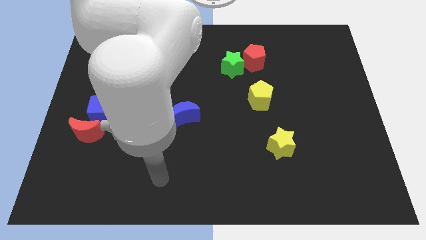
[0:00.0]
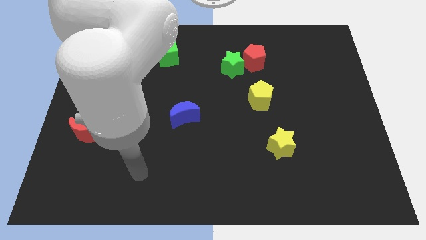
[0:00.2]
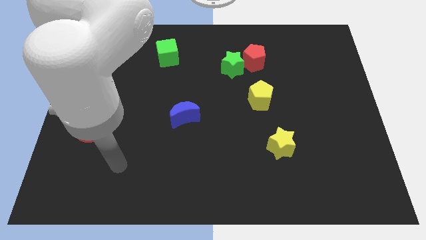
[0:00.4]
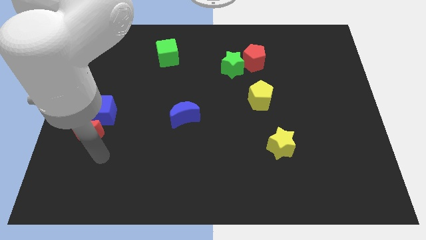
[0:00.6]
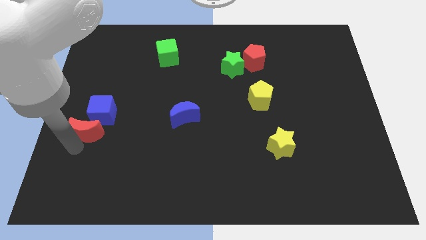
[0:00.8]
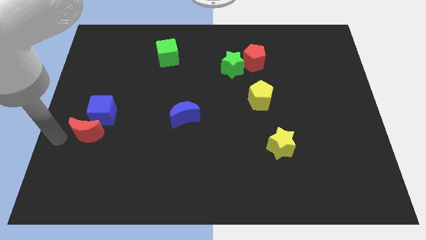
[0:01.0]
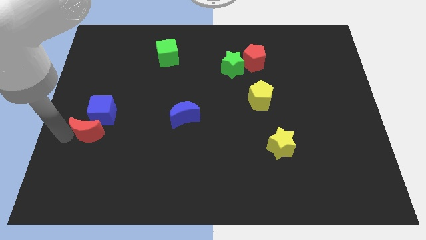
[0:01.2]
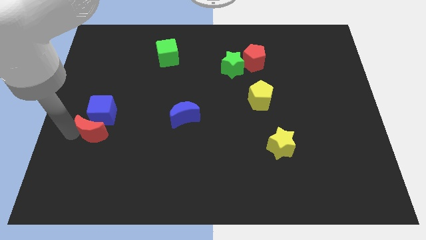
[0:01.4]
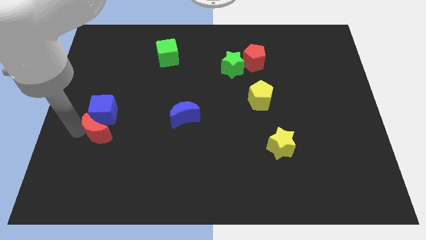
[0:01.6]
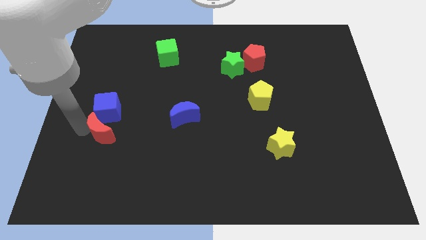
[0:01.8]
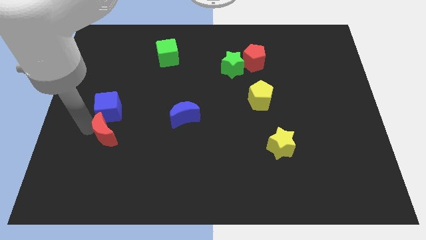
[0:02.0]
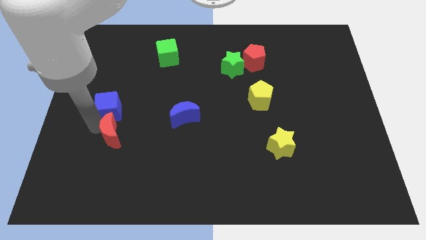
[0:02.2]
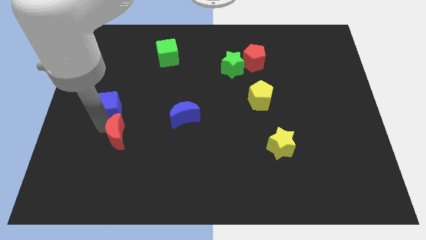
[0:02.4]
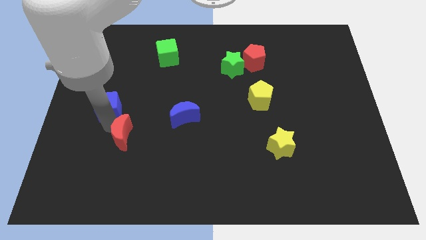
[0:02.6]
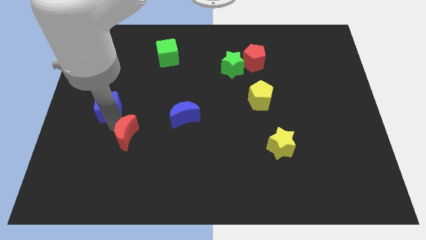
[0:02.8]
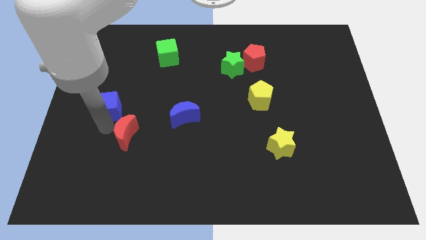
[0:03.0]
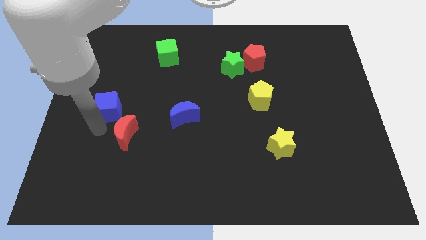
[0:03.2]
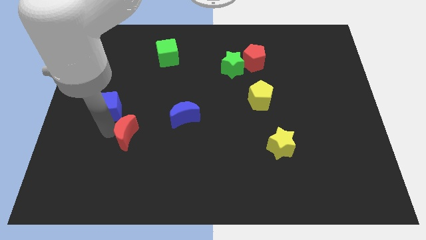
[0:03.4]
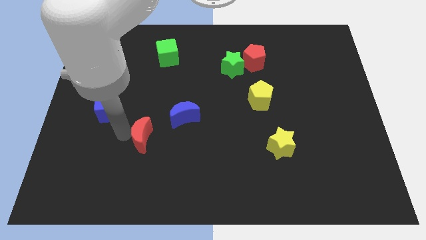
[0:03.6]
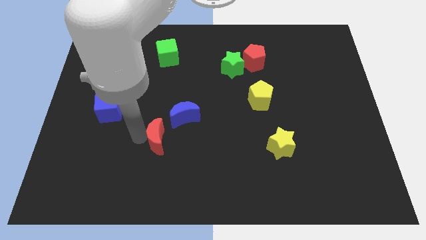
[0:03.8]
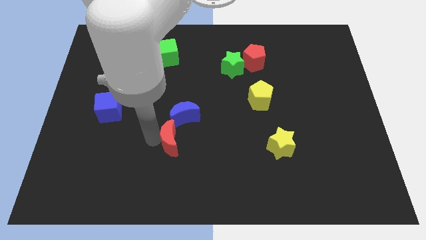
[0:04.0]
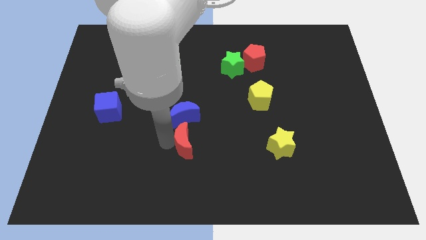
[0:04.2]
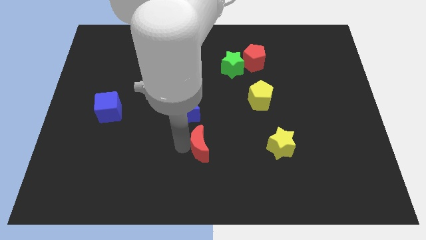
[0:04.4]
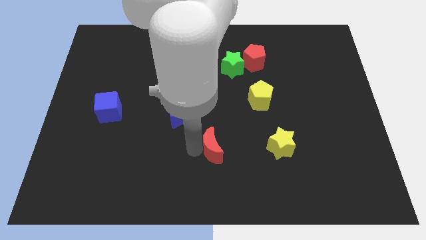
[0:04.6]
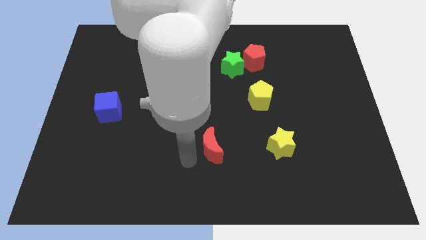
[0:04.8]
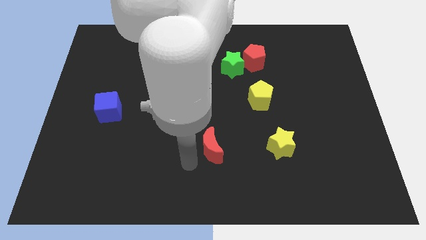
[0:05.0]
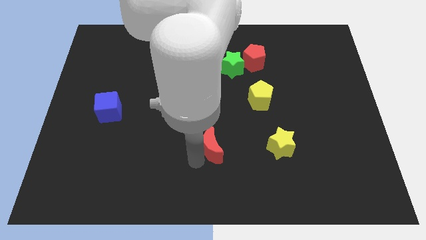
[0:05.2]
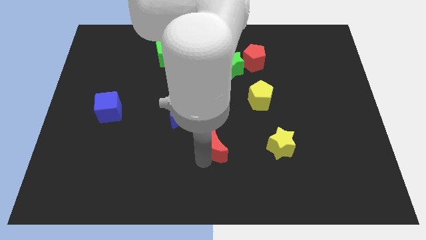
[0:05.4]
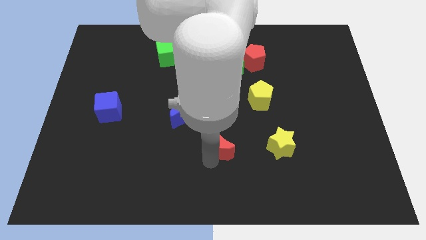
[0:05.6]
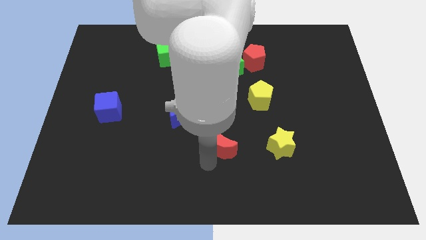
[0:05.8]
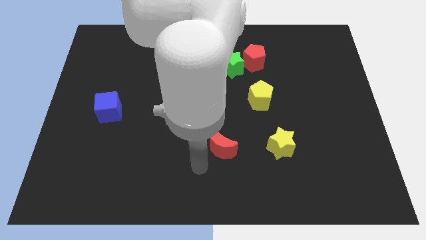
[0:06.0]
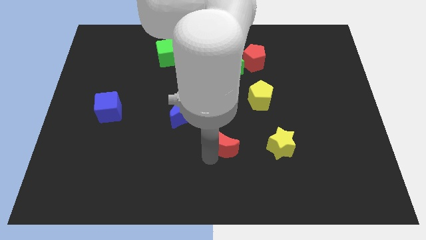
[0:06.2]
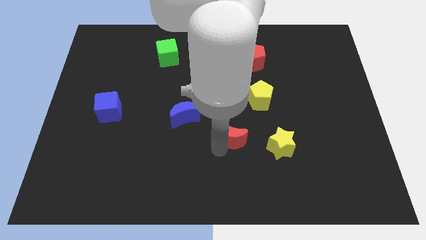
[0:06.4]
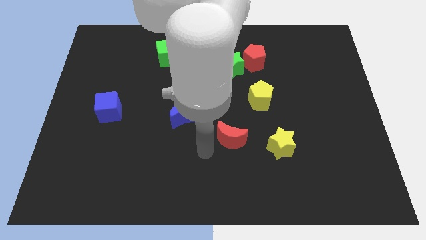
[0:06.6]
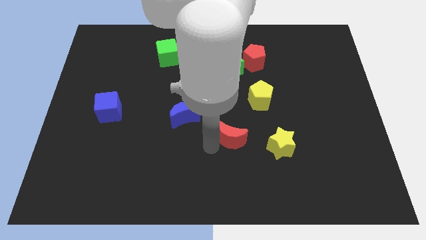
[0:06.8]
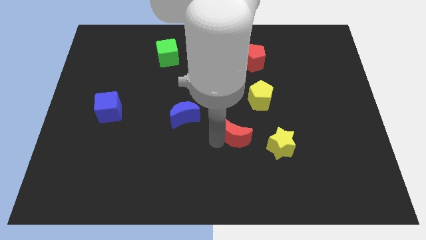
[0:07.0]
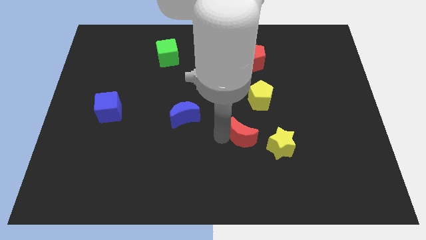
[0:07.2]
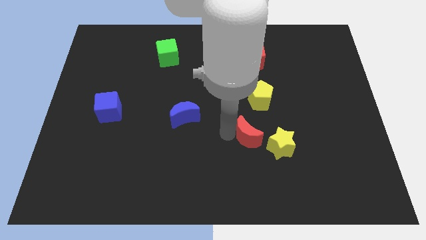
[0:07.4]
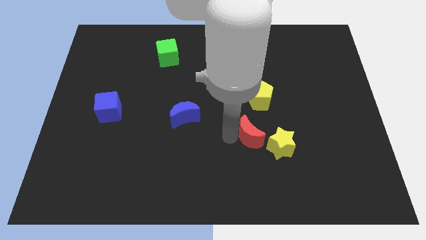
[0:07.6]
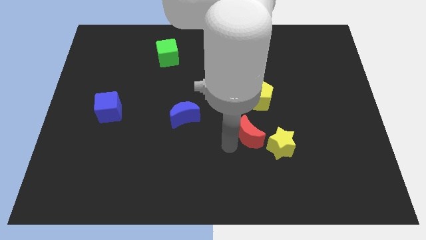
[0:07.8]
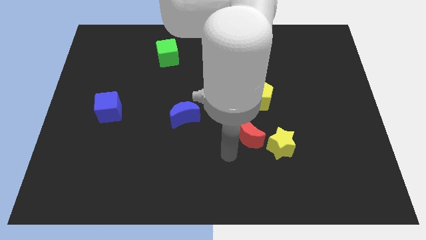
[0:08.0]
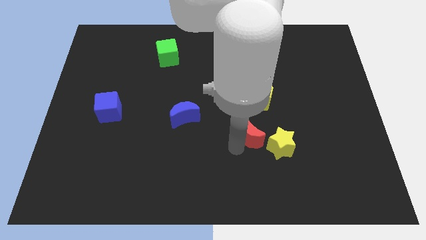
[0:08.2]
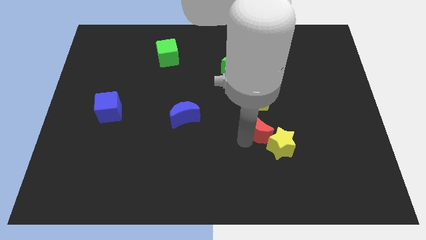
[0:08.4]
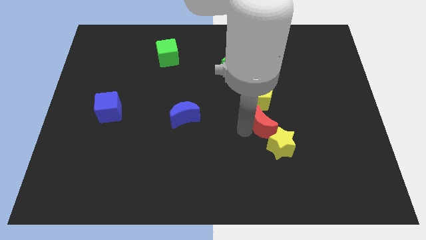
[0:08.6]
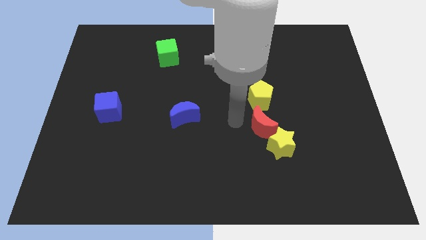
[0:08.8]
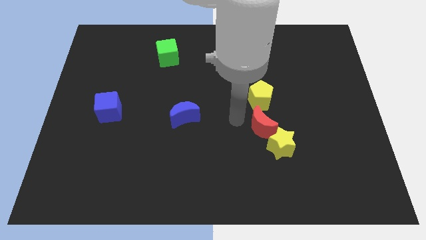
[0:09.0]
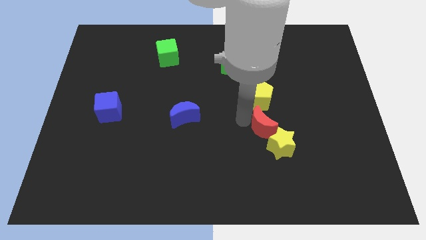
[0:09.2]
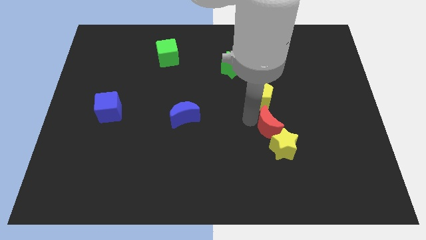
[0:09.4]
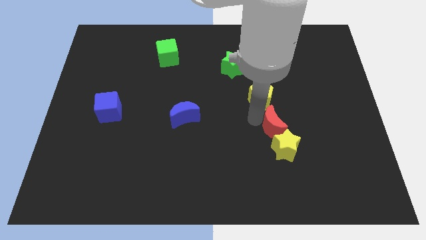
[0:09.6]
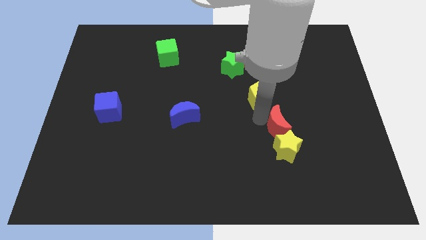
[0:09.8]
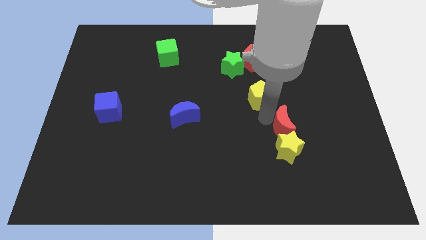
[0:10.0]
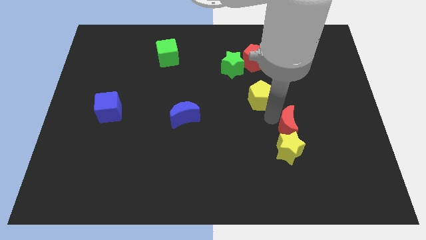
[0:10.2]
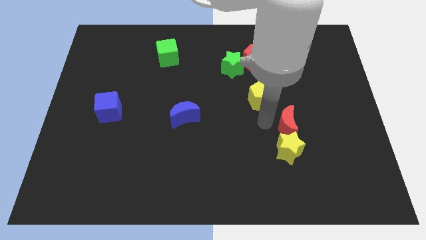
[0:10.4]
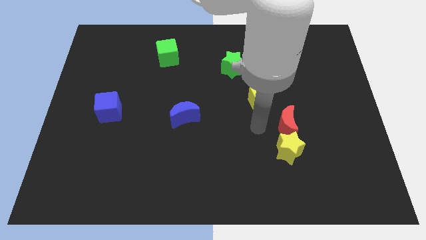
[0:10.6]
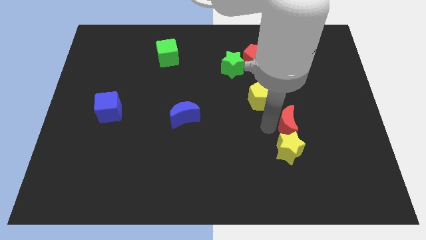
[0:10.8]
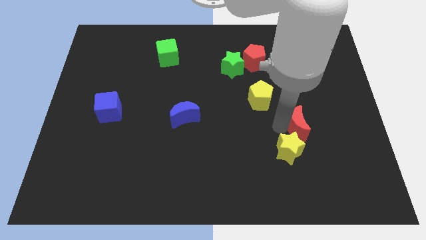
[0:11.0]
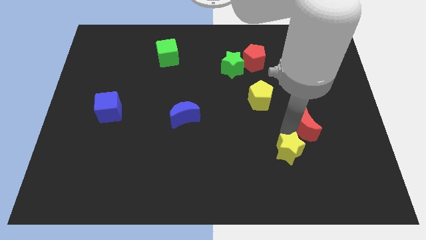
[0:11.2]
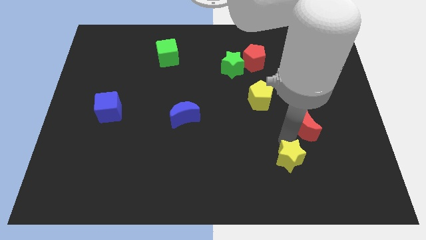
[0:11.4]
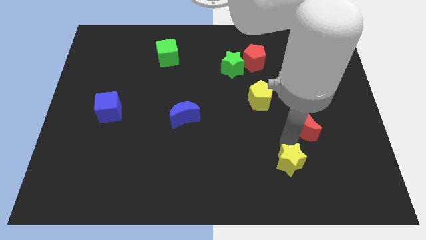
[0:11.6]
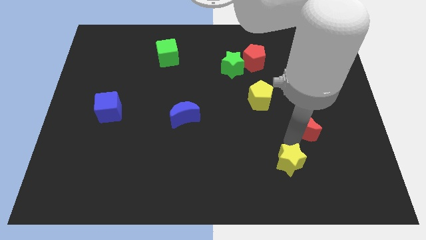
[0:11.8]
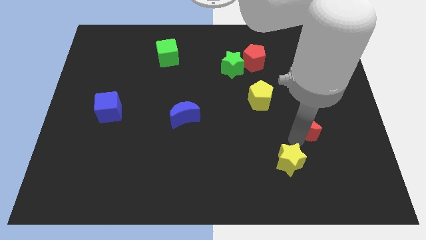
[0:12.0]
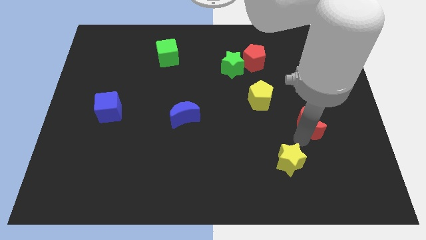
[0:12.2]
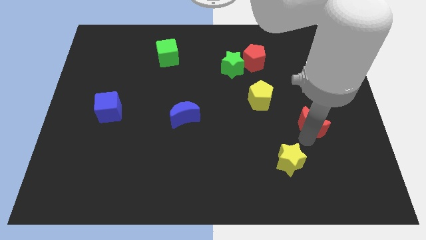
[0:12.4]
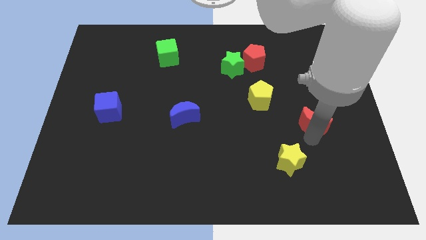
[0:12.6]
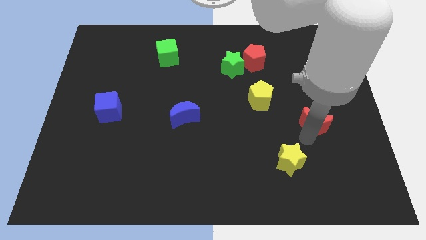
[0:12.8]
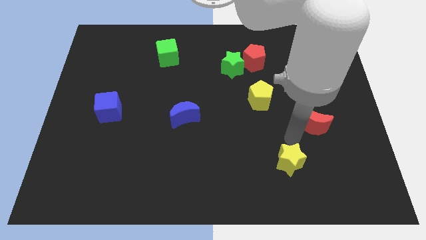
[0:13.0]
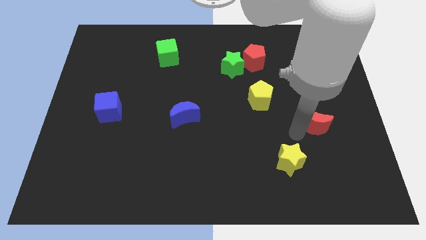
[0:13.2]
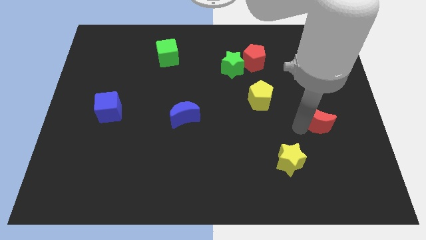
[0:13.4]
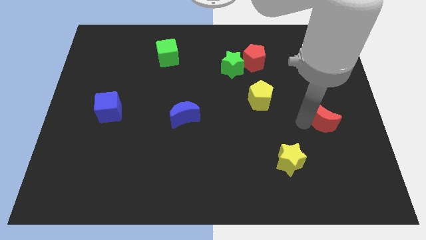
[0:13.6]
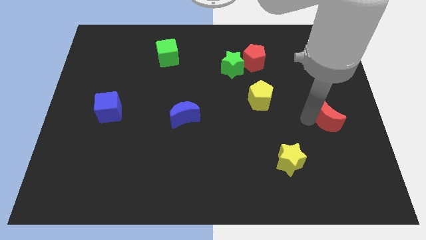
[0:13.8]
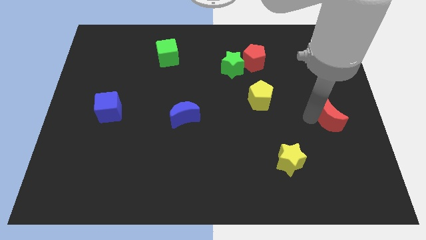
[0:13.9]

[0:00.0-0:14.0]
push the red moon to the center right
